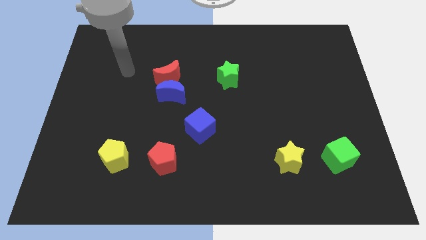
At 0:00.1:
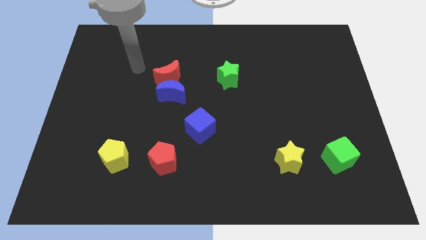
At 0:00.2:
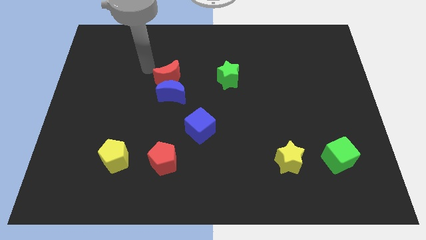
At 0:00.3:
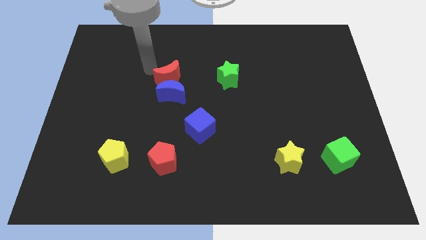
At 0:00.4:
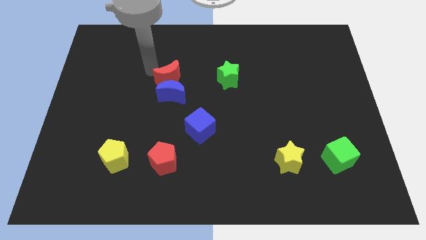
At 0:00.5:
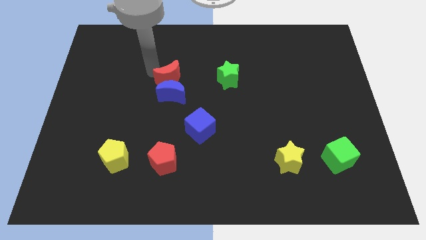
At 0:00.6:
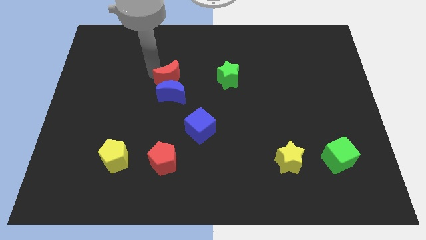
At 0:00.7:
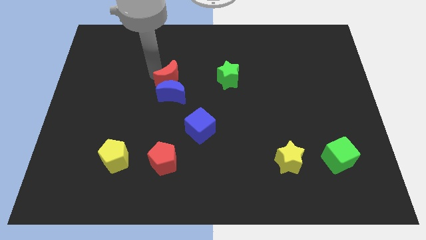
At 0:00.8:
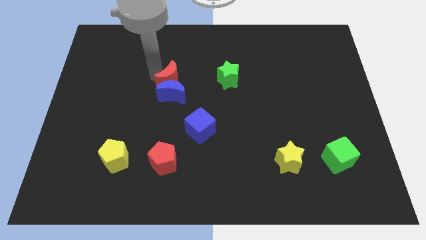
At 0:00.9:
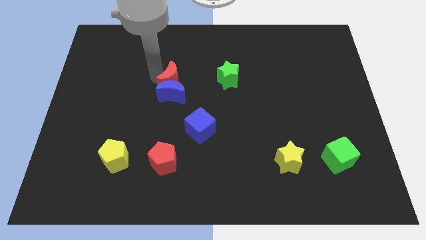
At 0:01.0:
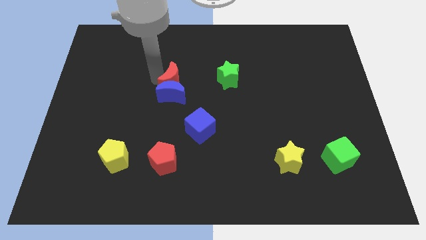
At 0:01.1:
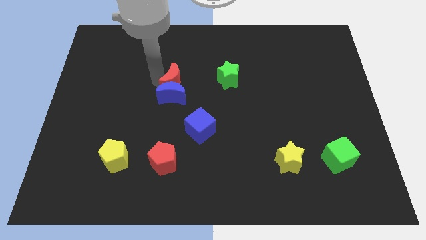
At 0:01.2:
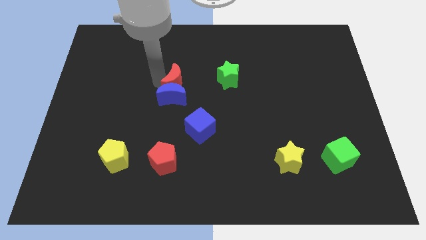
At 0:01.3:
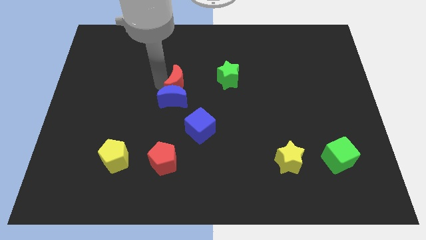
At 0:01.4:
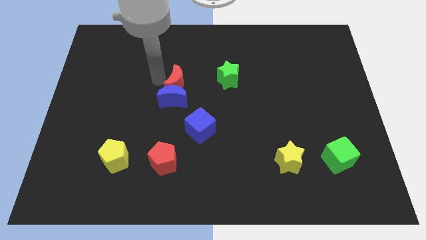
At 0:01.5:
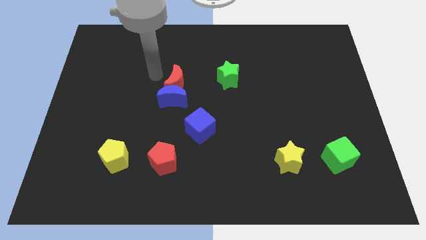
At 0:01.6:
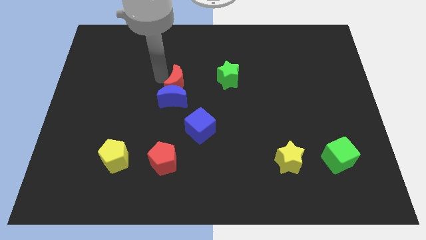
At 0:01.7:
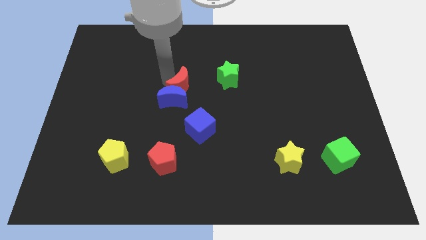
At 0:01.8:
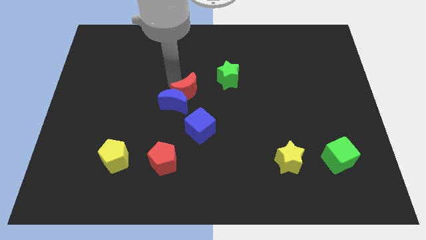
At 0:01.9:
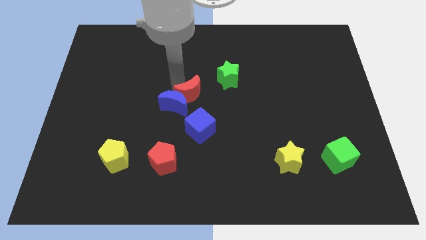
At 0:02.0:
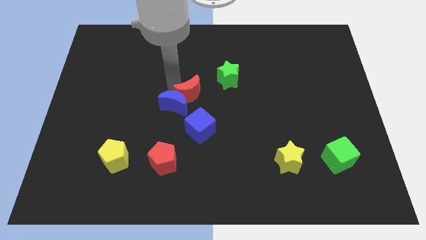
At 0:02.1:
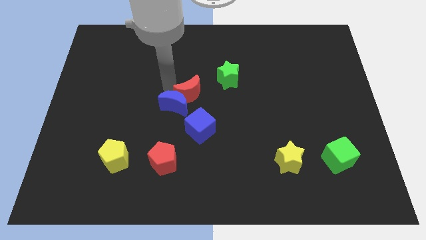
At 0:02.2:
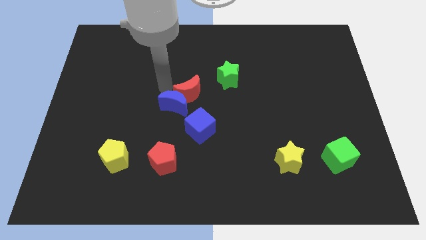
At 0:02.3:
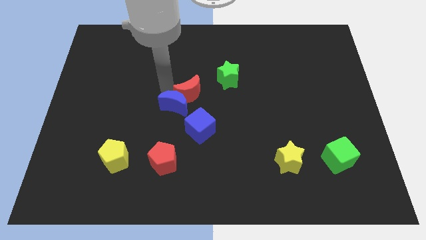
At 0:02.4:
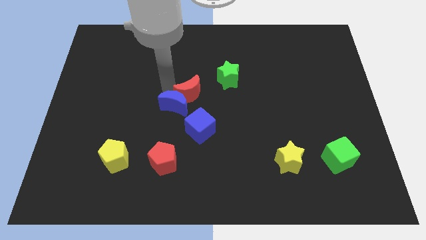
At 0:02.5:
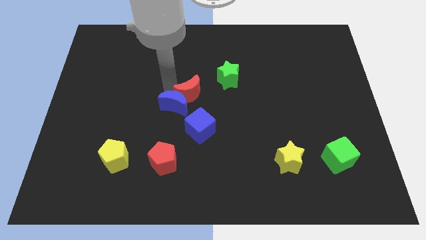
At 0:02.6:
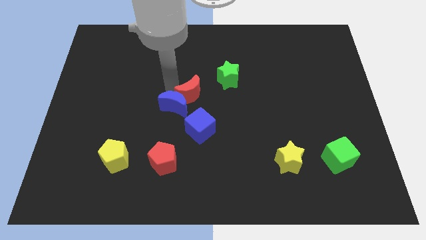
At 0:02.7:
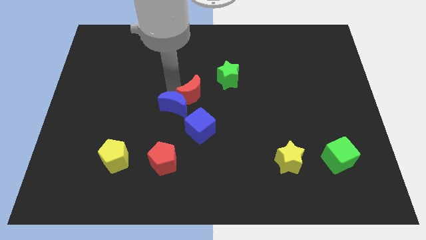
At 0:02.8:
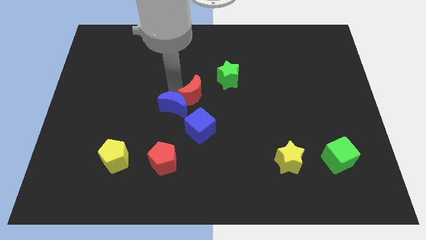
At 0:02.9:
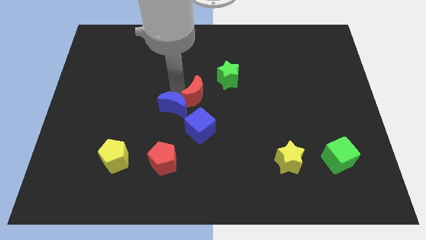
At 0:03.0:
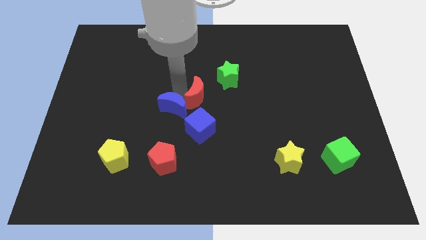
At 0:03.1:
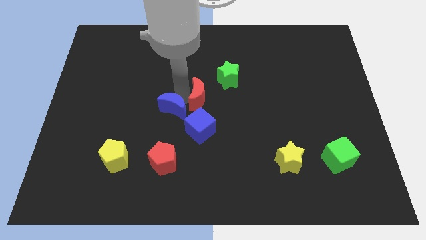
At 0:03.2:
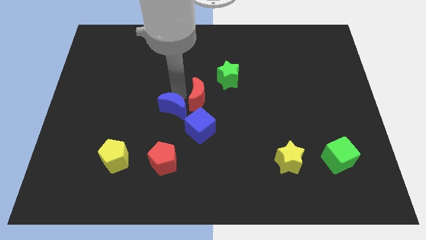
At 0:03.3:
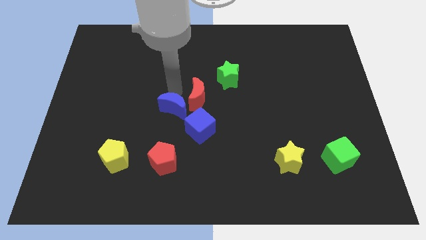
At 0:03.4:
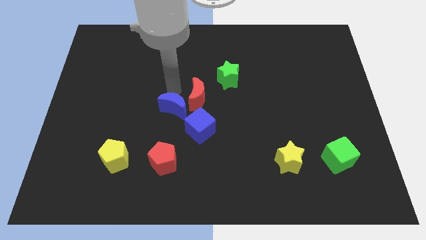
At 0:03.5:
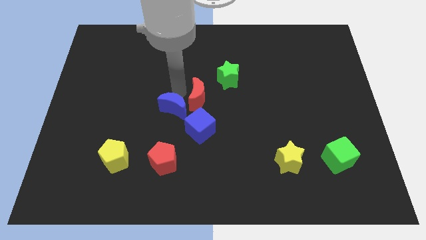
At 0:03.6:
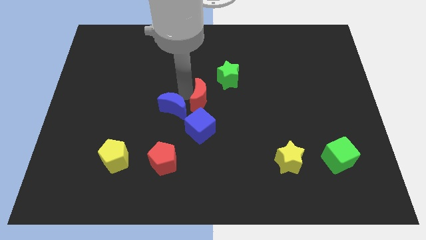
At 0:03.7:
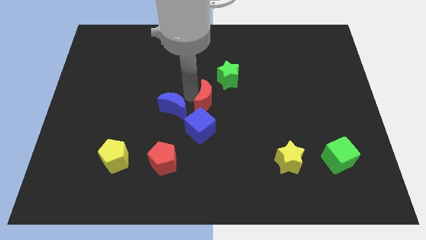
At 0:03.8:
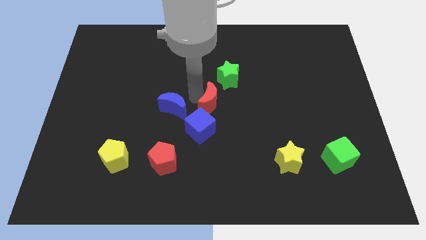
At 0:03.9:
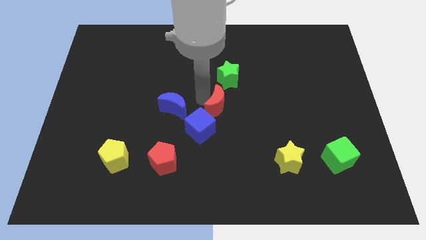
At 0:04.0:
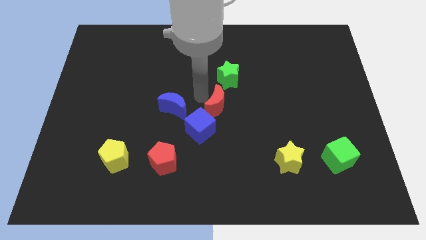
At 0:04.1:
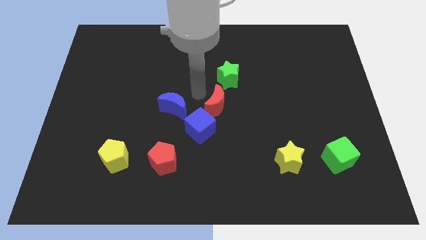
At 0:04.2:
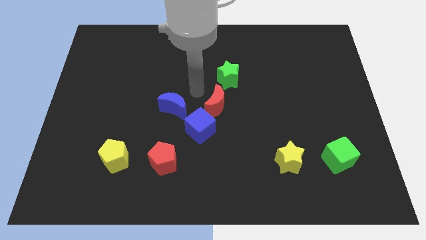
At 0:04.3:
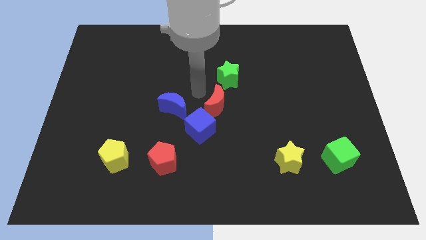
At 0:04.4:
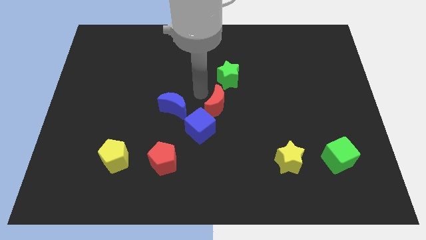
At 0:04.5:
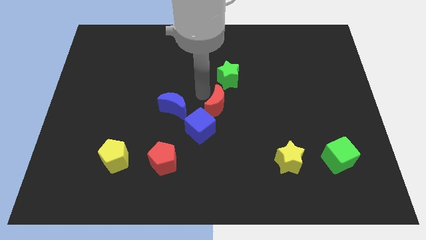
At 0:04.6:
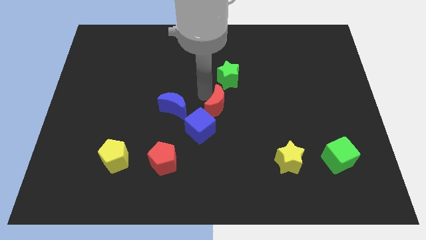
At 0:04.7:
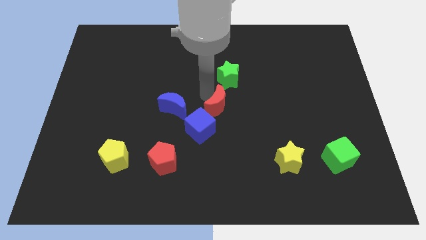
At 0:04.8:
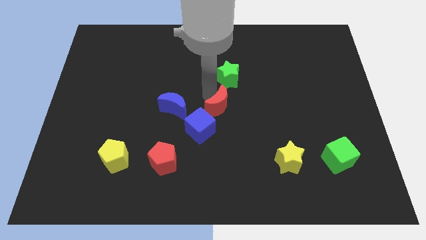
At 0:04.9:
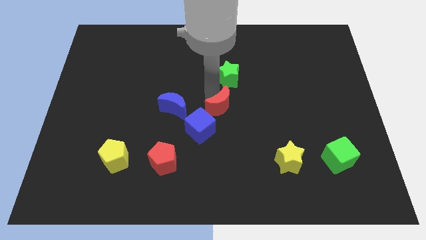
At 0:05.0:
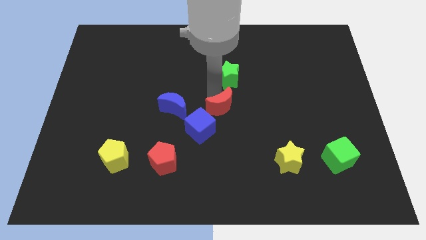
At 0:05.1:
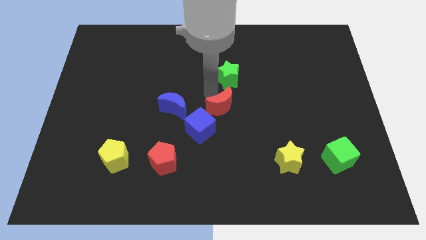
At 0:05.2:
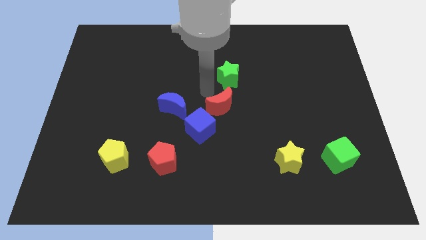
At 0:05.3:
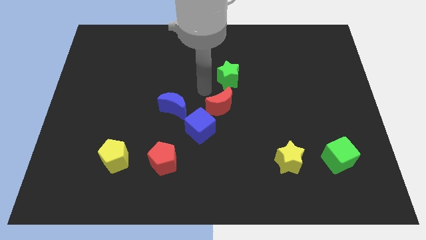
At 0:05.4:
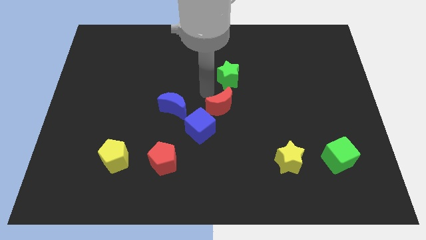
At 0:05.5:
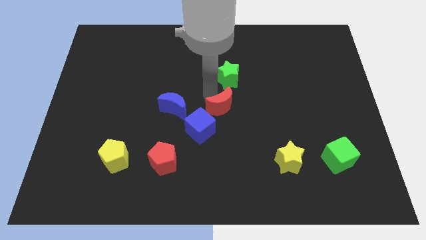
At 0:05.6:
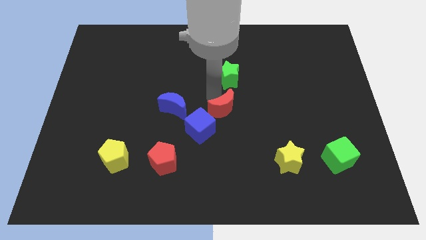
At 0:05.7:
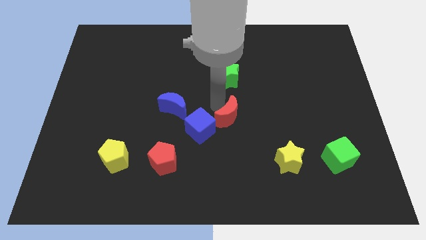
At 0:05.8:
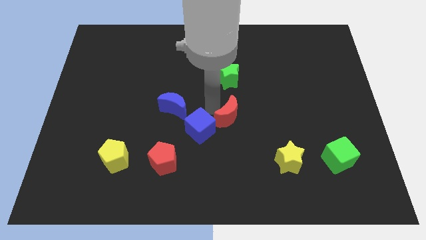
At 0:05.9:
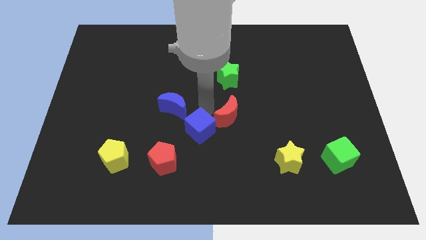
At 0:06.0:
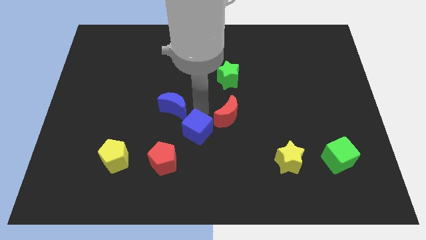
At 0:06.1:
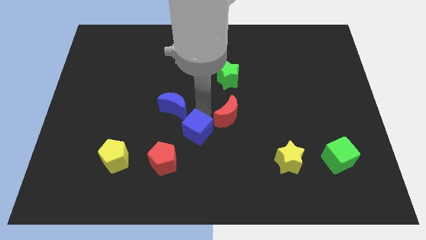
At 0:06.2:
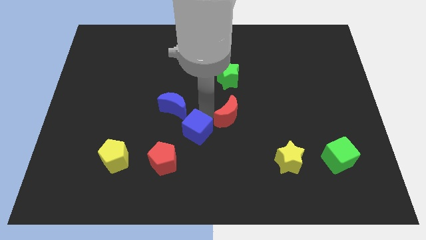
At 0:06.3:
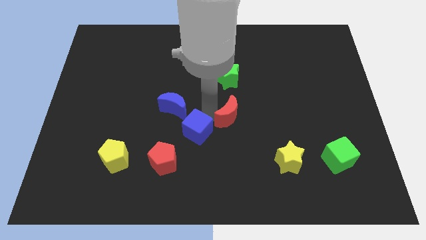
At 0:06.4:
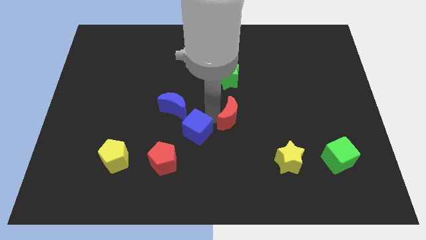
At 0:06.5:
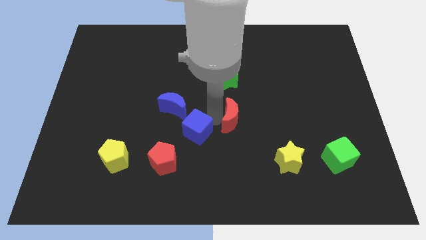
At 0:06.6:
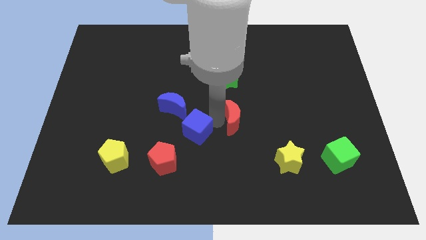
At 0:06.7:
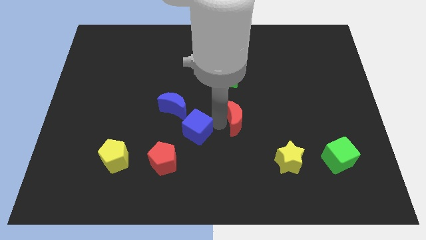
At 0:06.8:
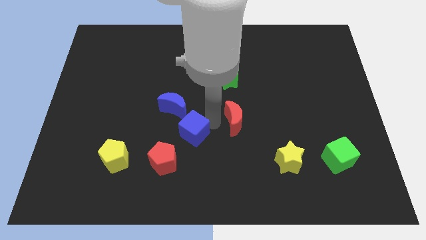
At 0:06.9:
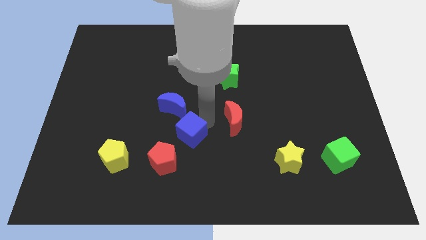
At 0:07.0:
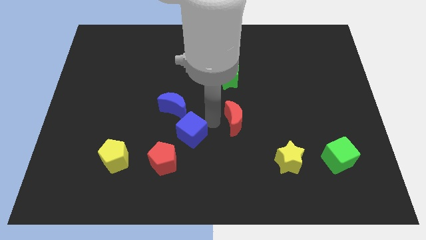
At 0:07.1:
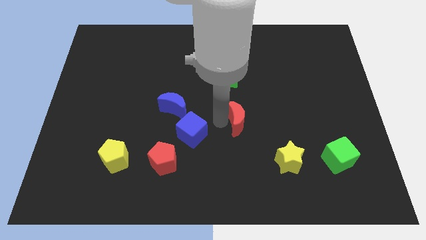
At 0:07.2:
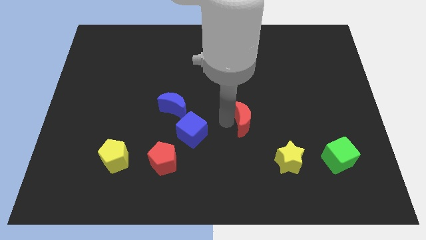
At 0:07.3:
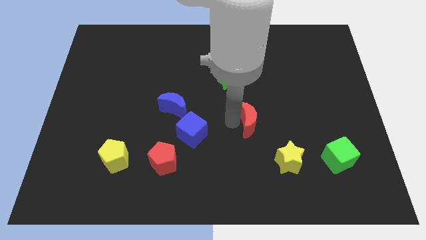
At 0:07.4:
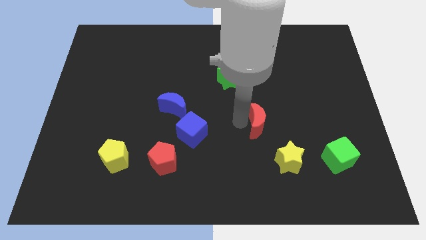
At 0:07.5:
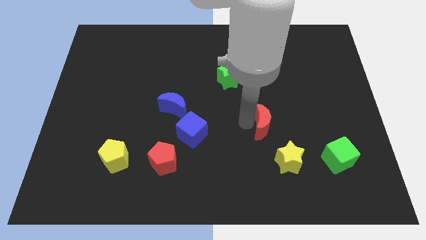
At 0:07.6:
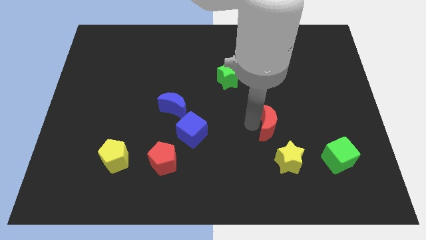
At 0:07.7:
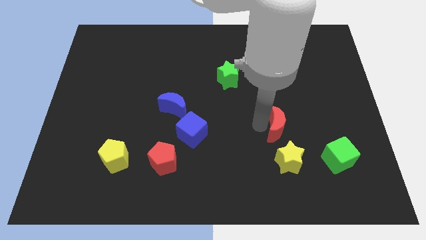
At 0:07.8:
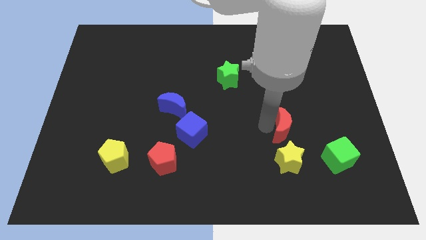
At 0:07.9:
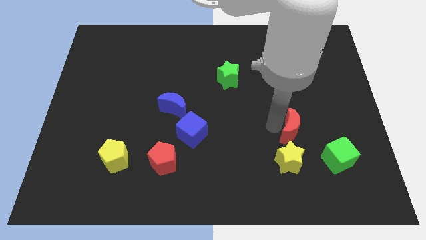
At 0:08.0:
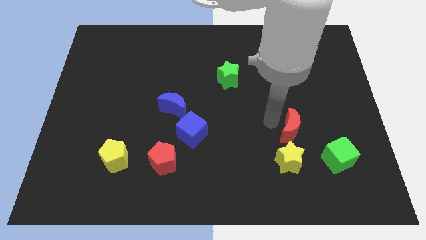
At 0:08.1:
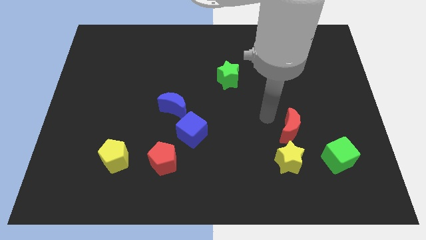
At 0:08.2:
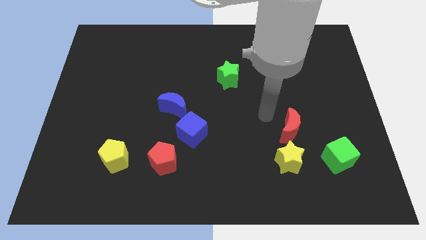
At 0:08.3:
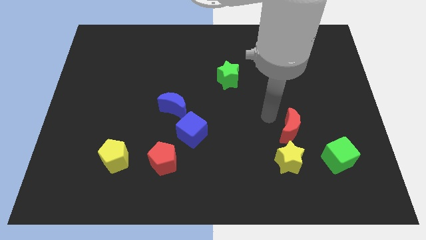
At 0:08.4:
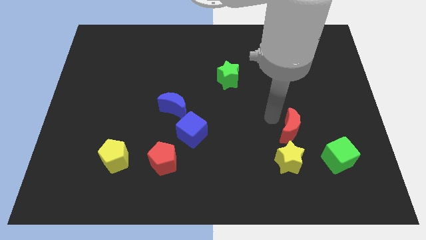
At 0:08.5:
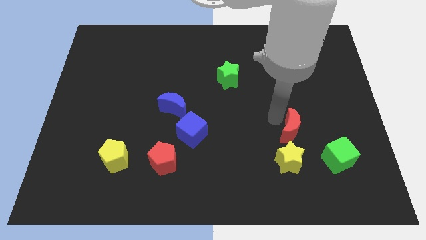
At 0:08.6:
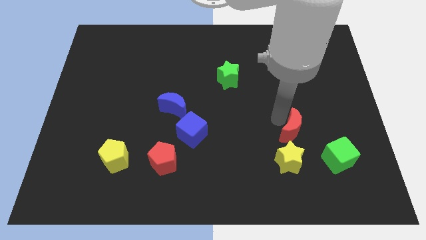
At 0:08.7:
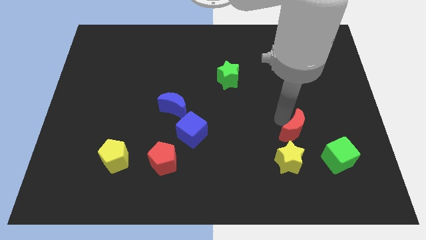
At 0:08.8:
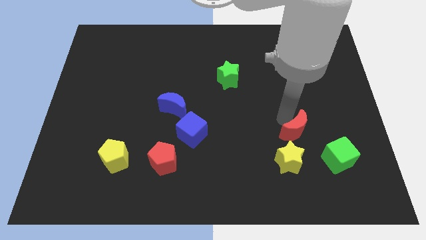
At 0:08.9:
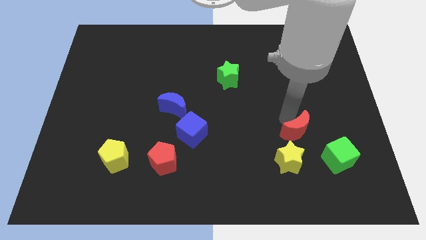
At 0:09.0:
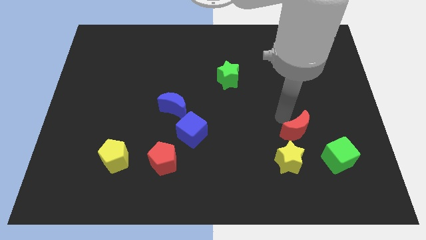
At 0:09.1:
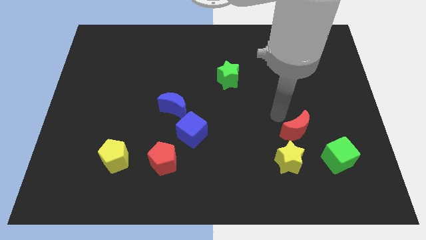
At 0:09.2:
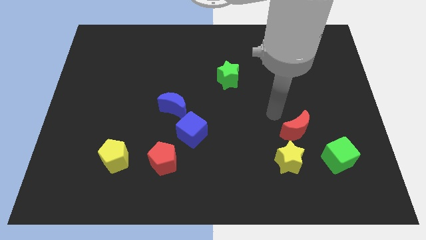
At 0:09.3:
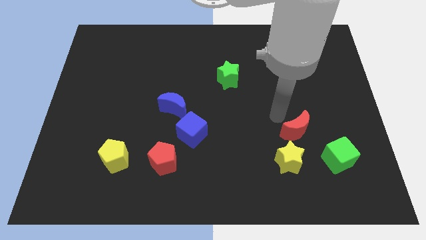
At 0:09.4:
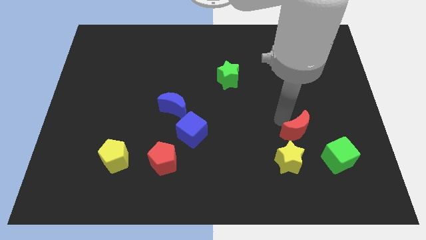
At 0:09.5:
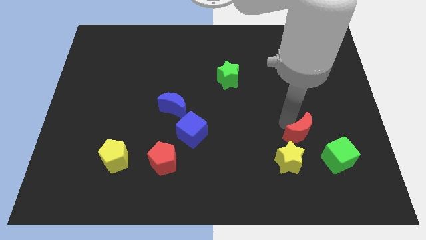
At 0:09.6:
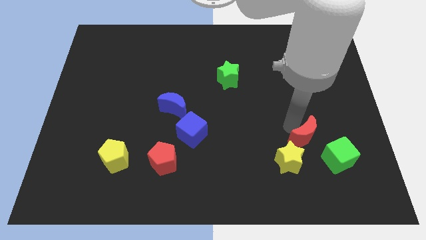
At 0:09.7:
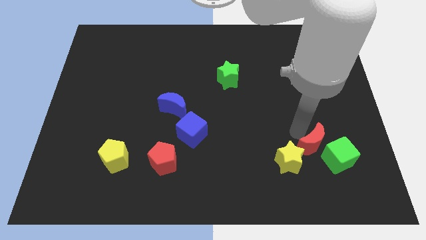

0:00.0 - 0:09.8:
slide the red moon to the green cube
